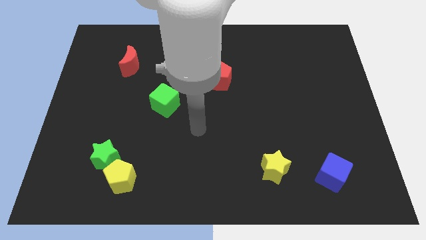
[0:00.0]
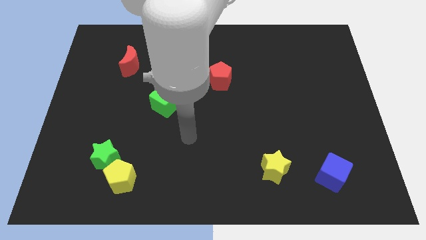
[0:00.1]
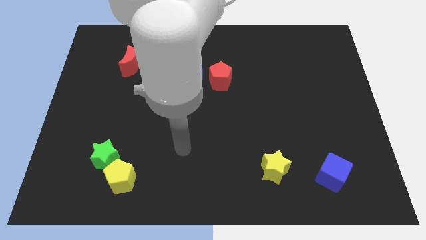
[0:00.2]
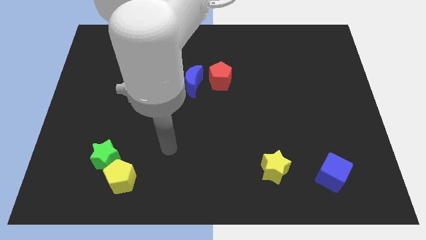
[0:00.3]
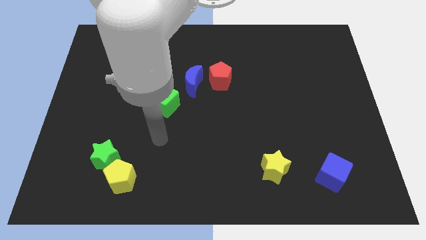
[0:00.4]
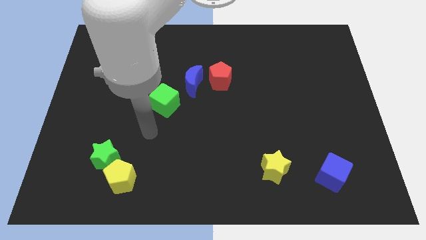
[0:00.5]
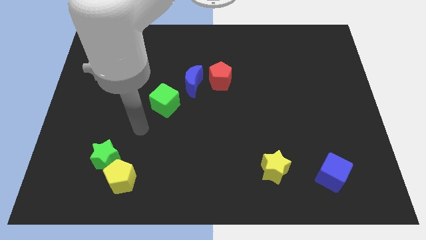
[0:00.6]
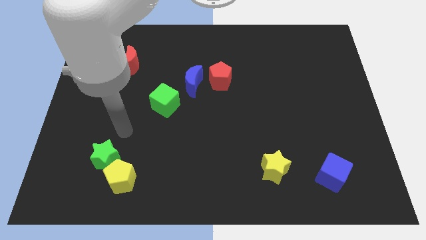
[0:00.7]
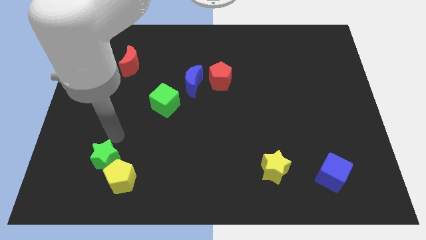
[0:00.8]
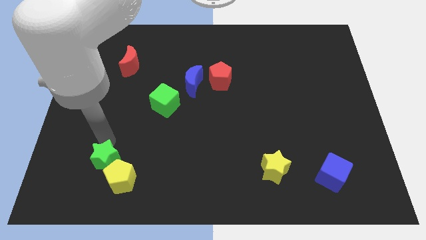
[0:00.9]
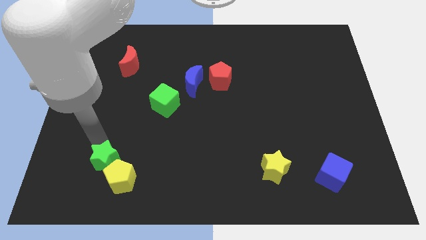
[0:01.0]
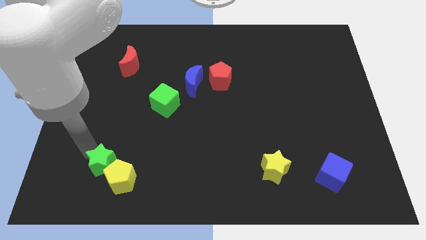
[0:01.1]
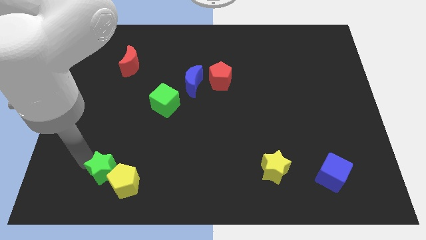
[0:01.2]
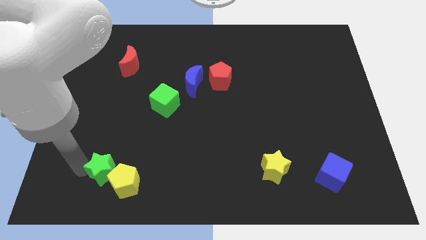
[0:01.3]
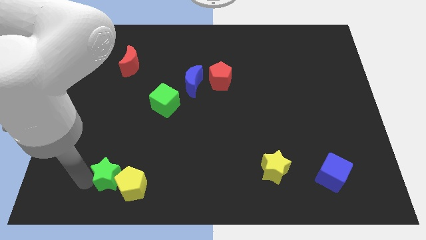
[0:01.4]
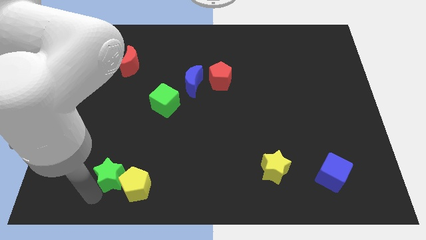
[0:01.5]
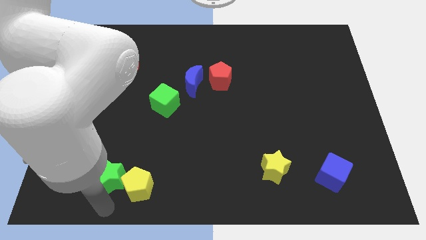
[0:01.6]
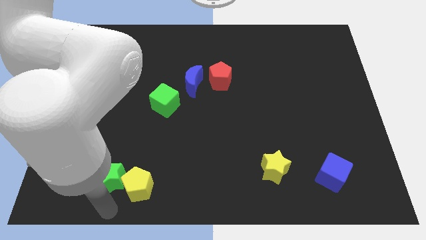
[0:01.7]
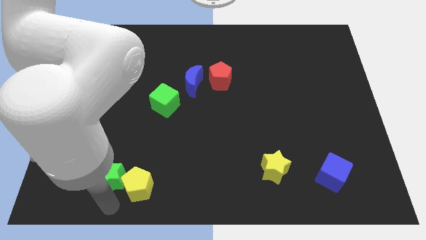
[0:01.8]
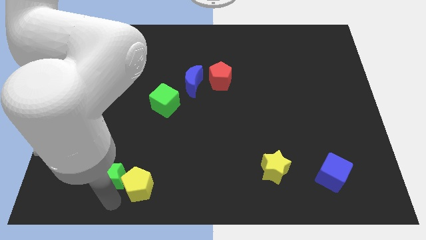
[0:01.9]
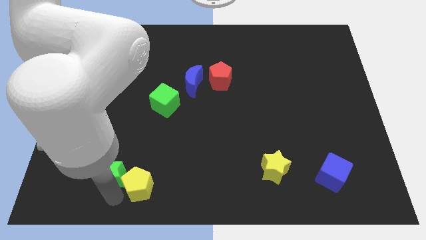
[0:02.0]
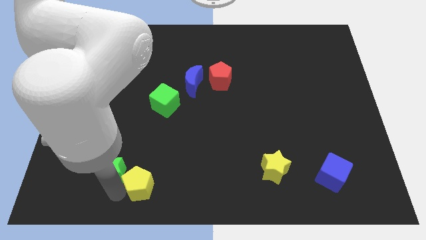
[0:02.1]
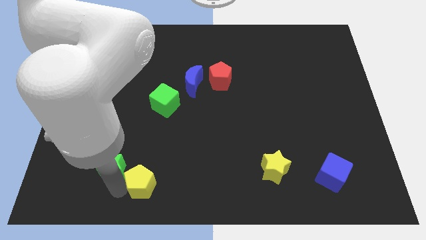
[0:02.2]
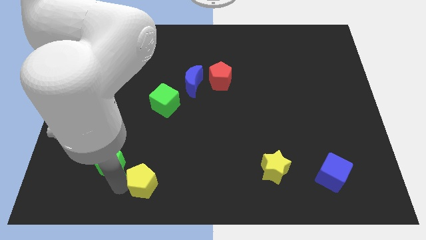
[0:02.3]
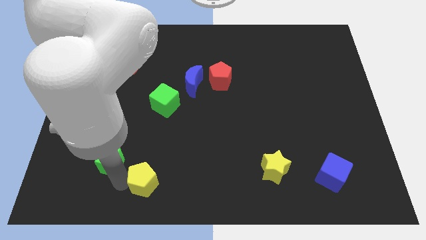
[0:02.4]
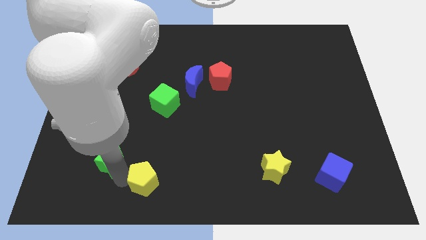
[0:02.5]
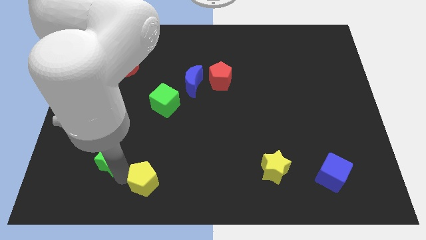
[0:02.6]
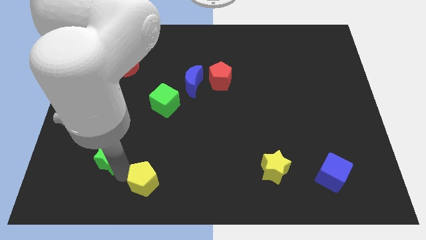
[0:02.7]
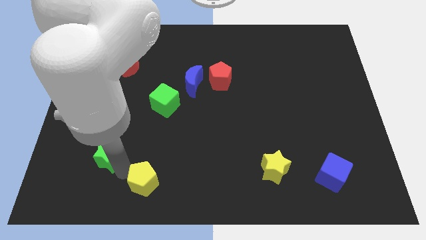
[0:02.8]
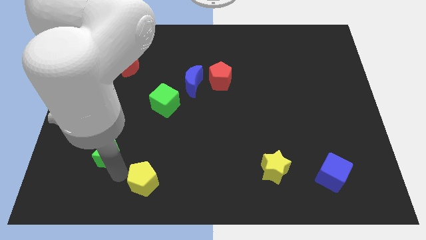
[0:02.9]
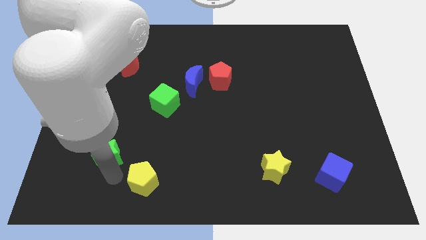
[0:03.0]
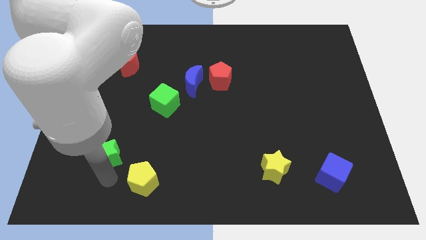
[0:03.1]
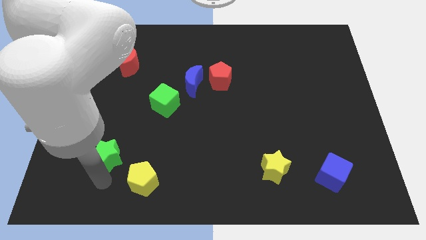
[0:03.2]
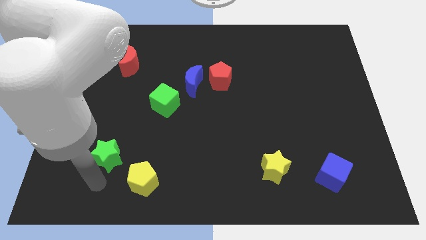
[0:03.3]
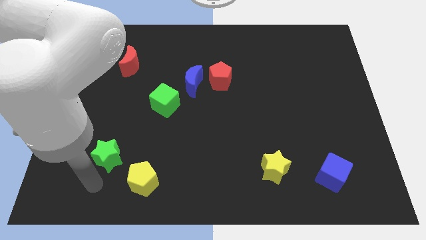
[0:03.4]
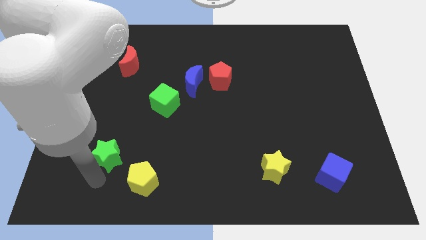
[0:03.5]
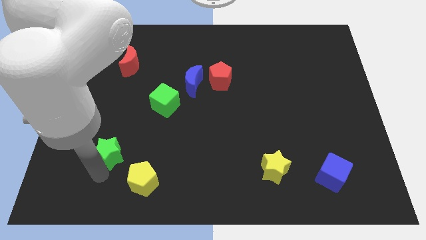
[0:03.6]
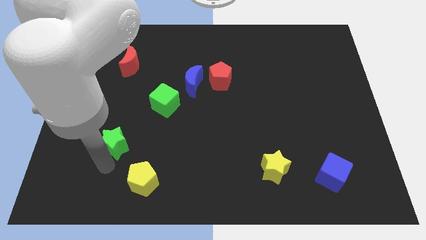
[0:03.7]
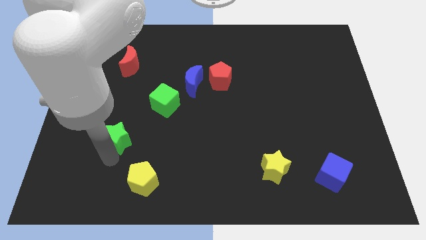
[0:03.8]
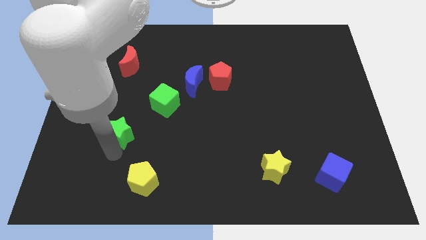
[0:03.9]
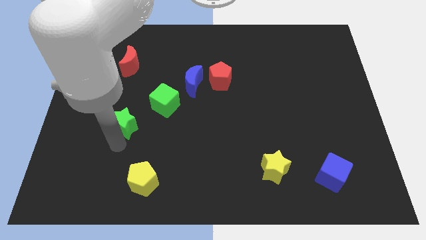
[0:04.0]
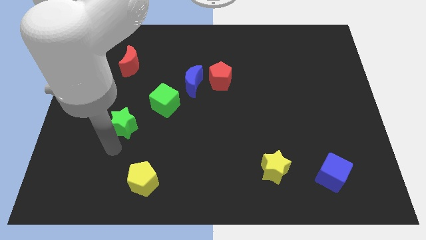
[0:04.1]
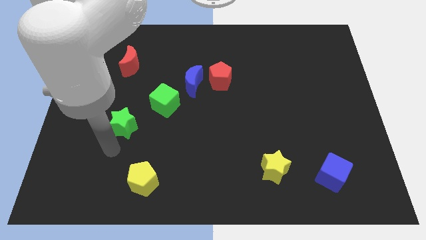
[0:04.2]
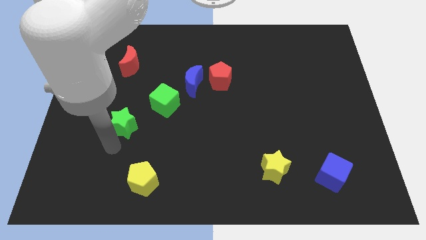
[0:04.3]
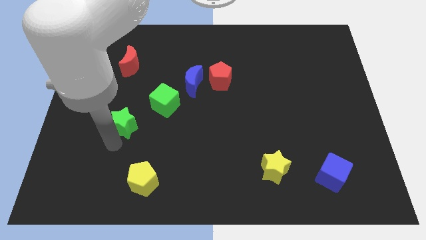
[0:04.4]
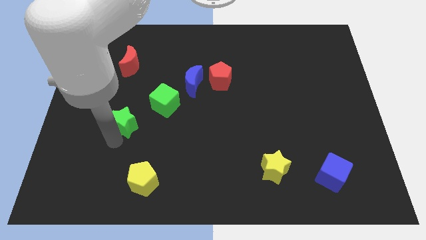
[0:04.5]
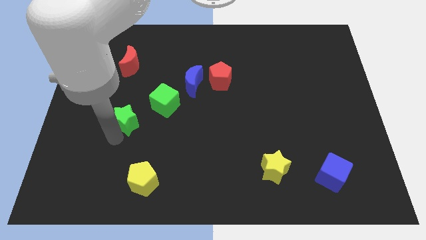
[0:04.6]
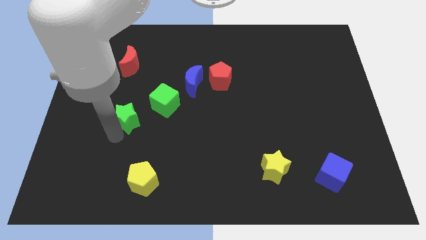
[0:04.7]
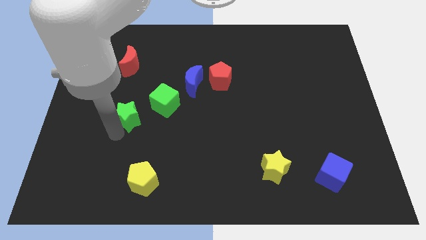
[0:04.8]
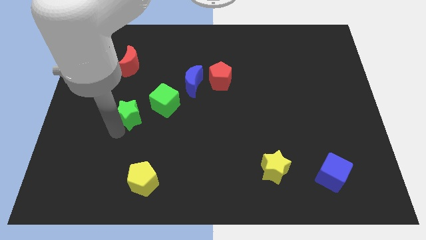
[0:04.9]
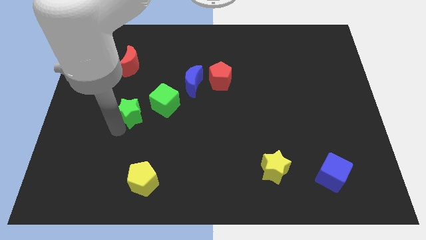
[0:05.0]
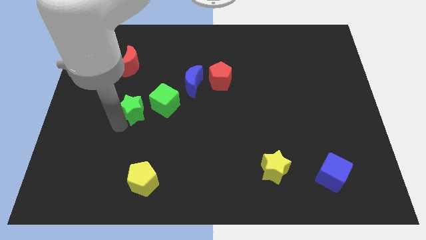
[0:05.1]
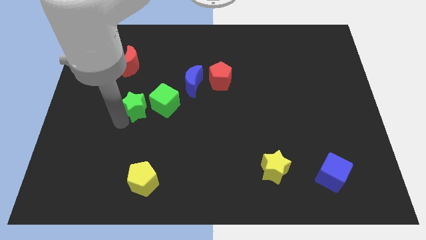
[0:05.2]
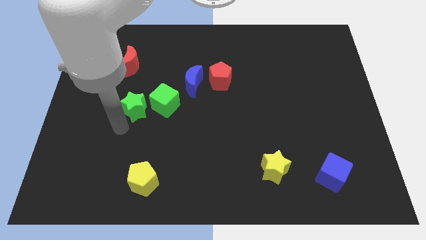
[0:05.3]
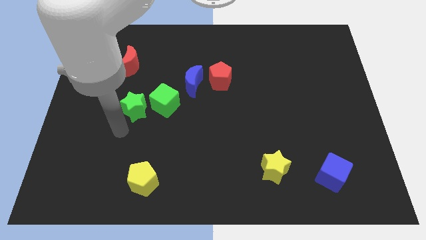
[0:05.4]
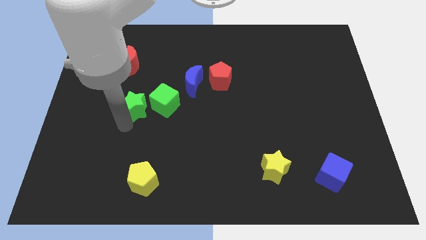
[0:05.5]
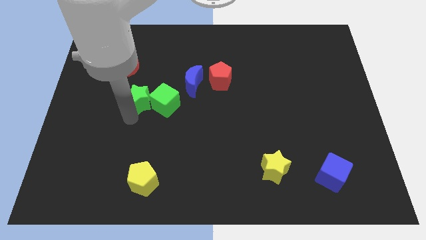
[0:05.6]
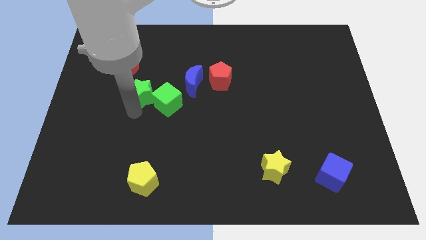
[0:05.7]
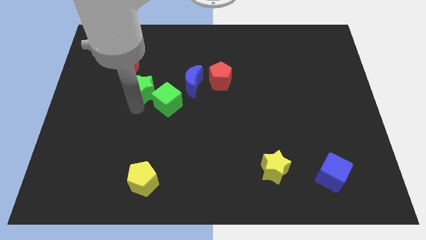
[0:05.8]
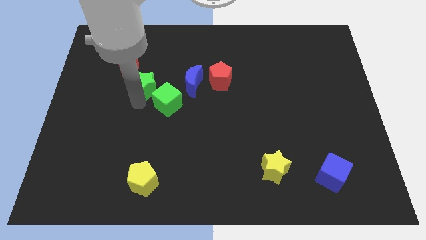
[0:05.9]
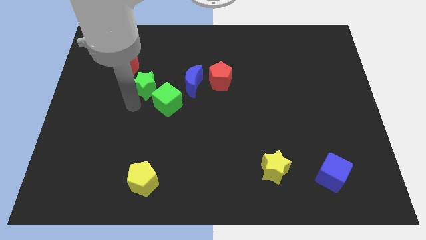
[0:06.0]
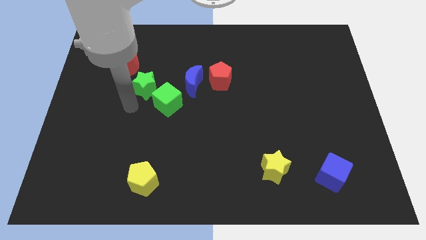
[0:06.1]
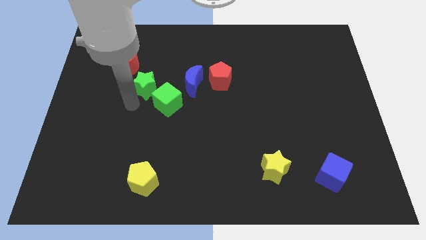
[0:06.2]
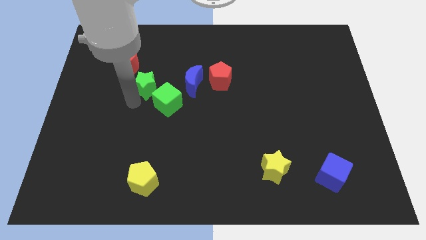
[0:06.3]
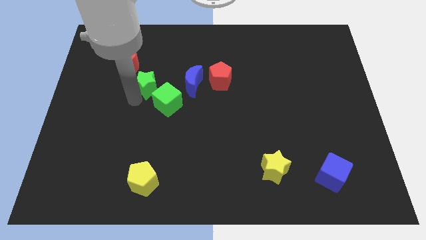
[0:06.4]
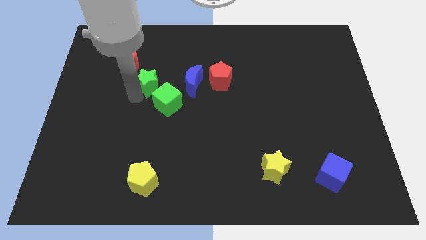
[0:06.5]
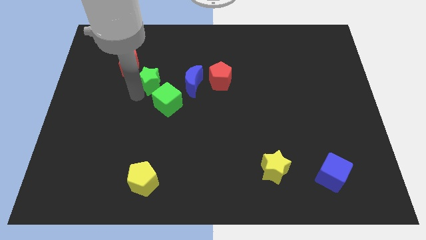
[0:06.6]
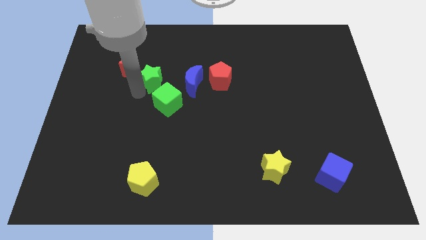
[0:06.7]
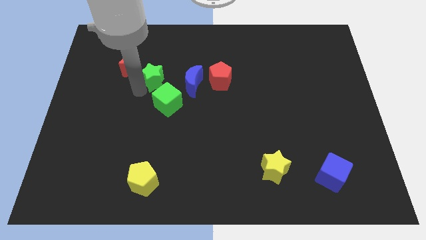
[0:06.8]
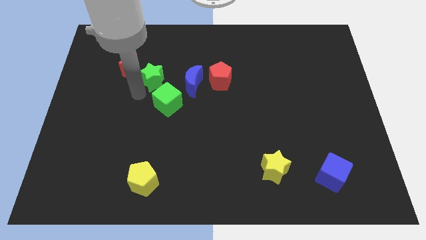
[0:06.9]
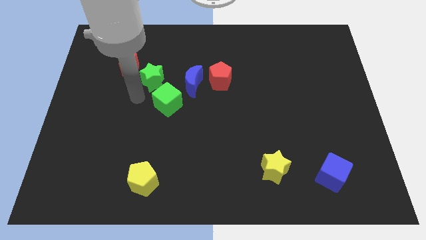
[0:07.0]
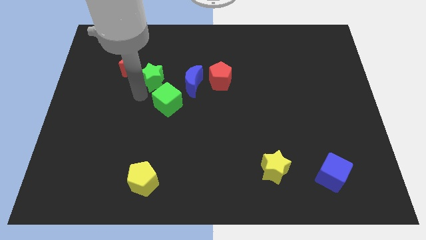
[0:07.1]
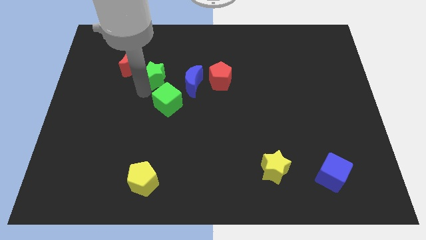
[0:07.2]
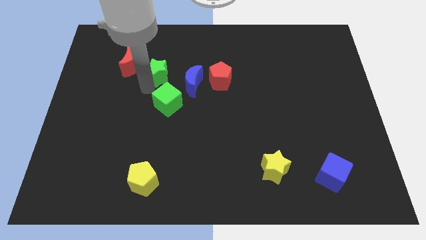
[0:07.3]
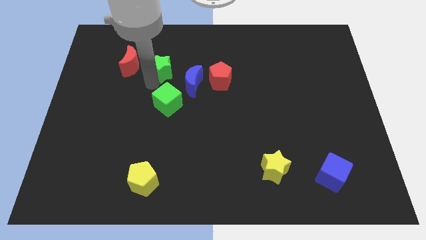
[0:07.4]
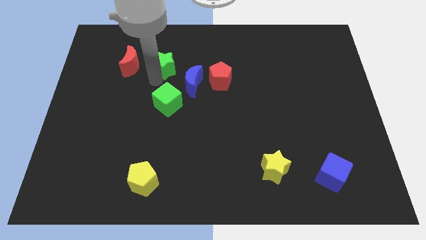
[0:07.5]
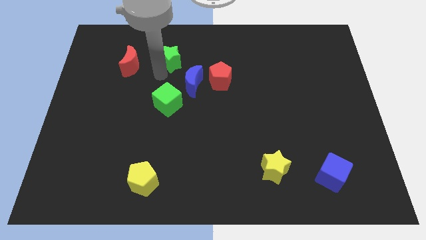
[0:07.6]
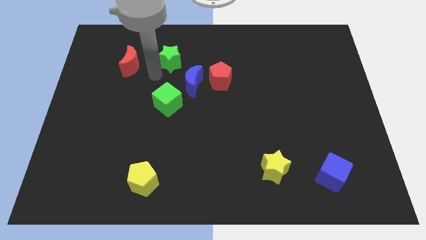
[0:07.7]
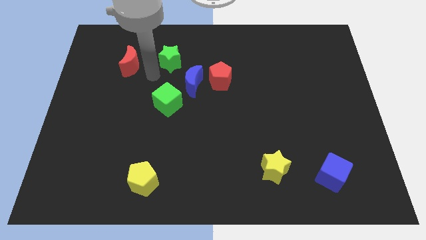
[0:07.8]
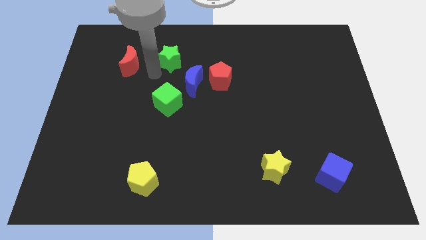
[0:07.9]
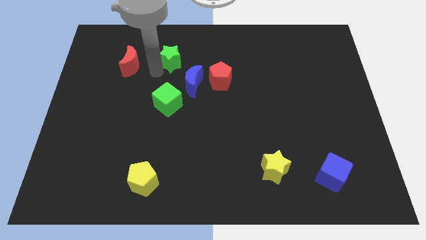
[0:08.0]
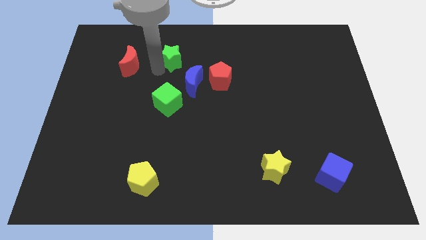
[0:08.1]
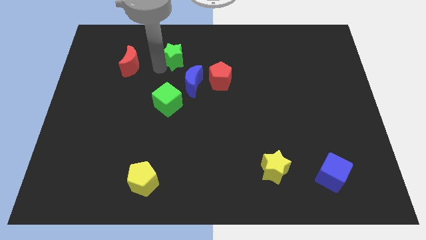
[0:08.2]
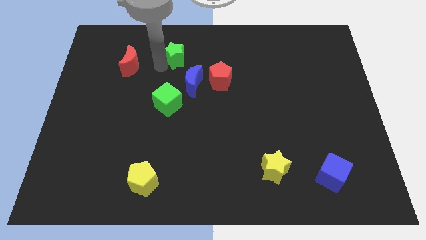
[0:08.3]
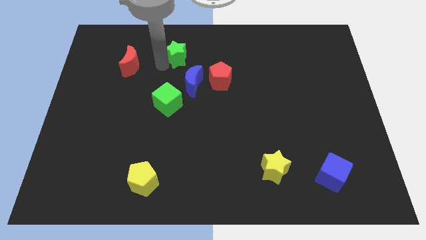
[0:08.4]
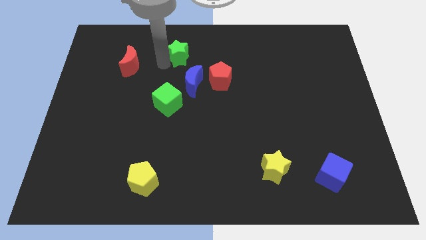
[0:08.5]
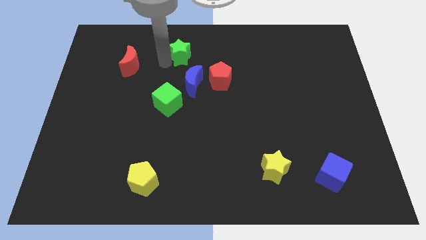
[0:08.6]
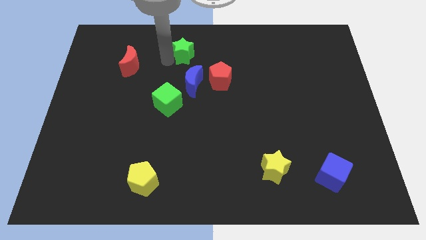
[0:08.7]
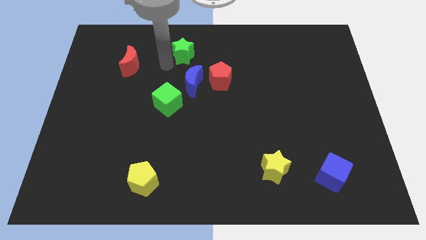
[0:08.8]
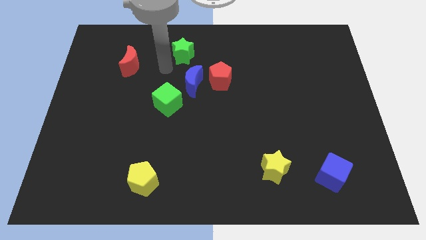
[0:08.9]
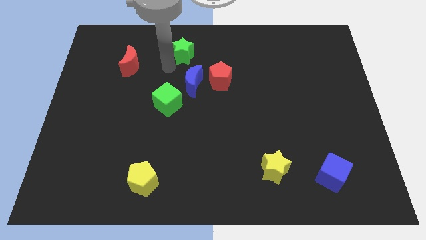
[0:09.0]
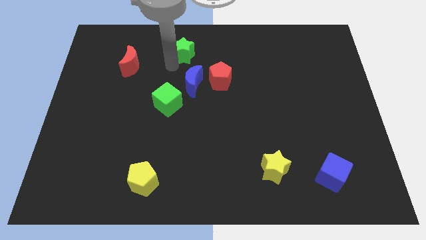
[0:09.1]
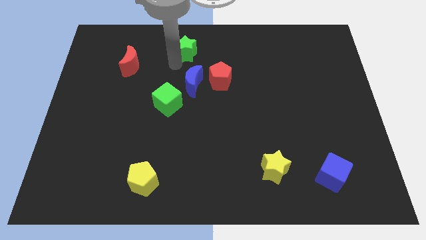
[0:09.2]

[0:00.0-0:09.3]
slide the green star to the towards your base
